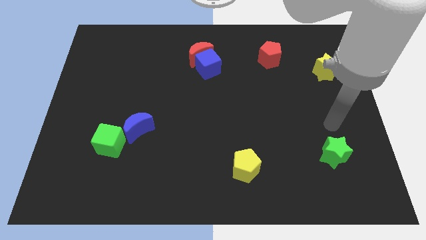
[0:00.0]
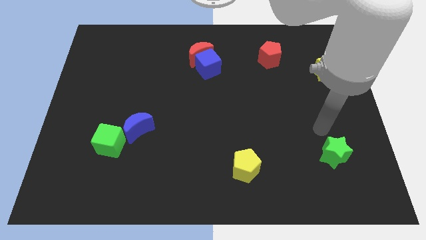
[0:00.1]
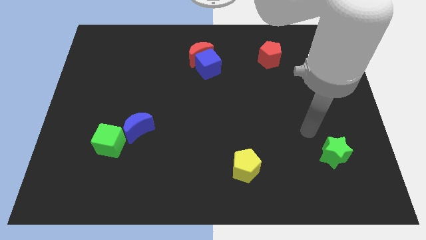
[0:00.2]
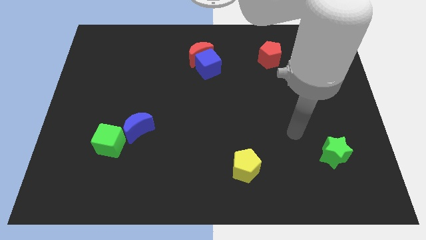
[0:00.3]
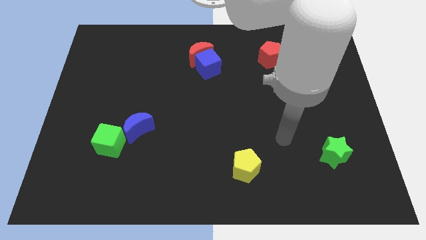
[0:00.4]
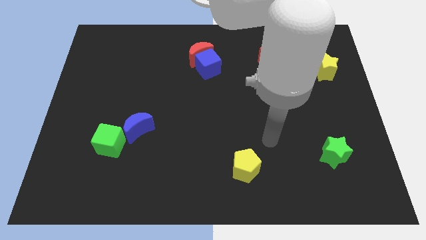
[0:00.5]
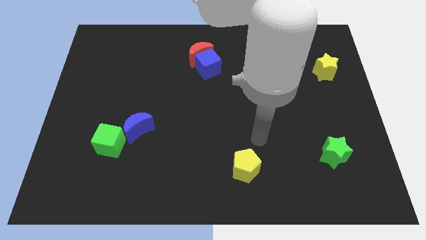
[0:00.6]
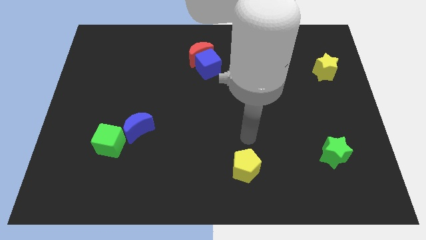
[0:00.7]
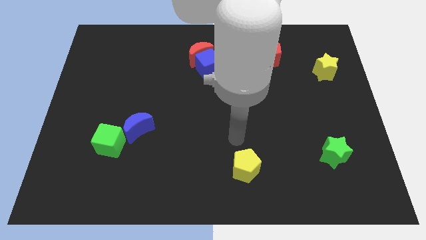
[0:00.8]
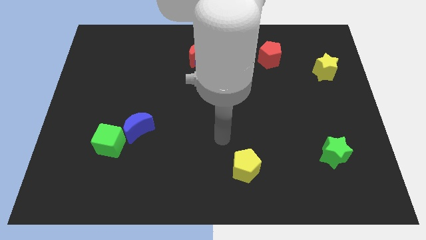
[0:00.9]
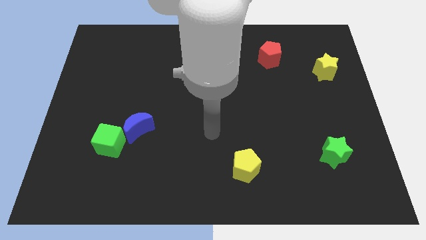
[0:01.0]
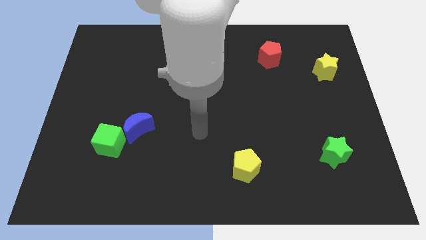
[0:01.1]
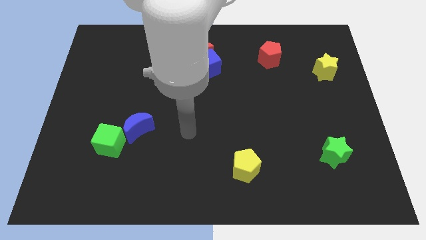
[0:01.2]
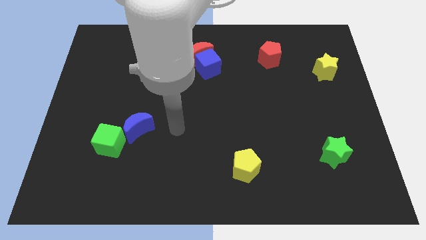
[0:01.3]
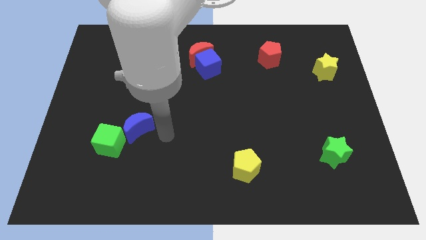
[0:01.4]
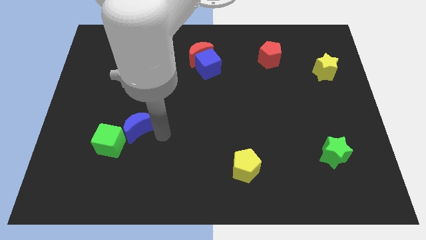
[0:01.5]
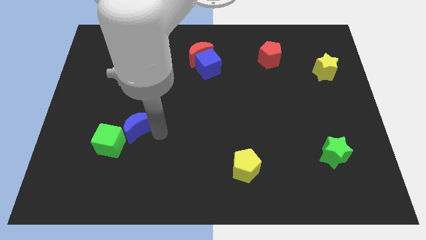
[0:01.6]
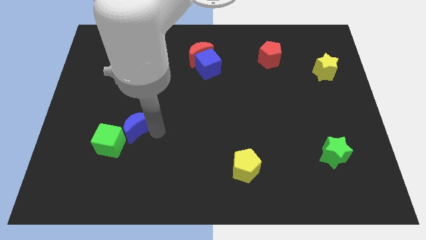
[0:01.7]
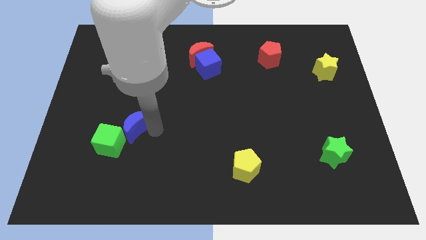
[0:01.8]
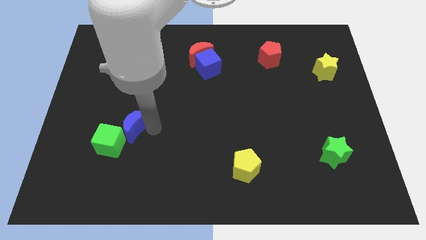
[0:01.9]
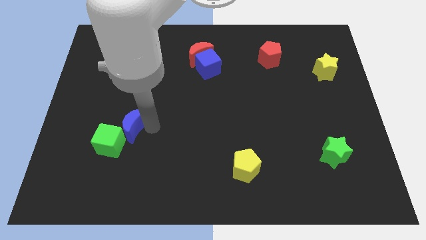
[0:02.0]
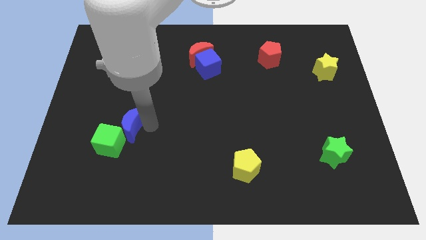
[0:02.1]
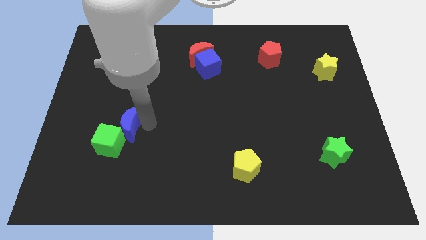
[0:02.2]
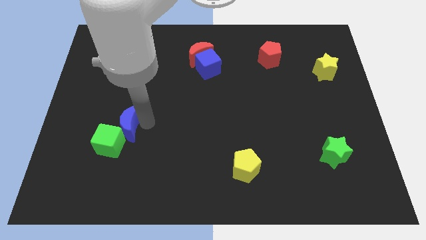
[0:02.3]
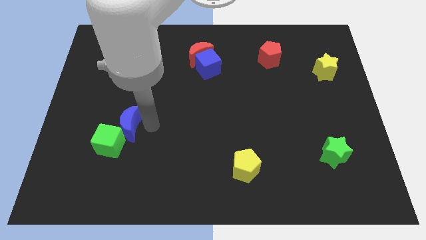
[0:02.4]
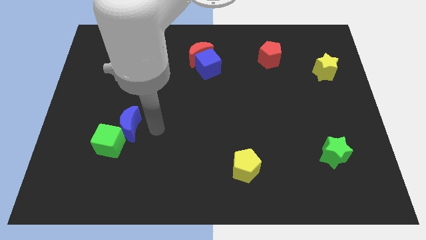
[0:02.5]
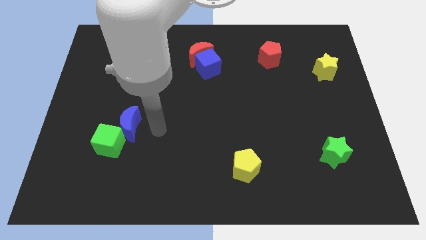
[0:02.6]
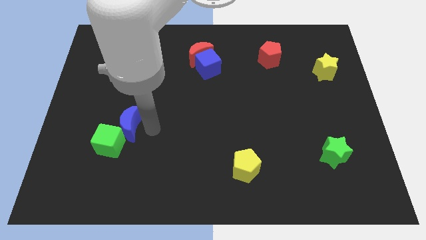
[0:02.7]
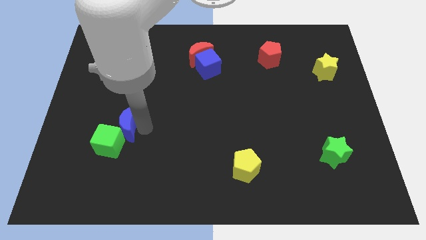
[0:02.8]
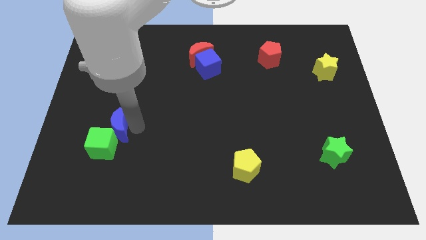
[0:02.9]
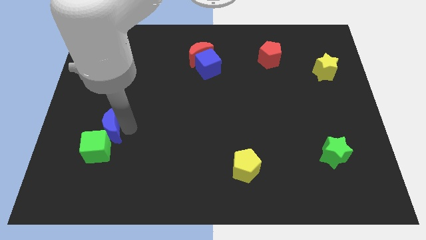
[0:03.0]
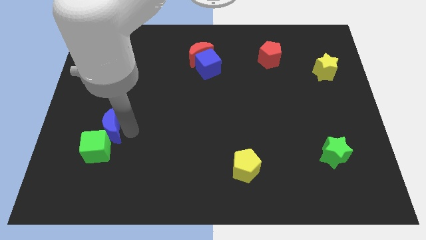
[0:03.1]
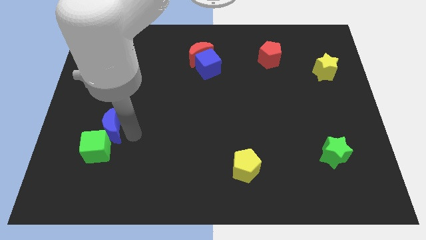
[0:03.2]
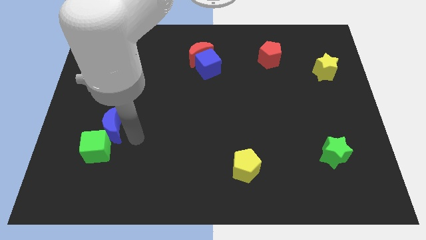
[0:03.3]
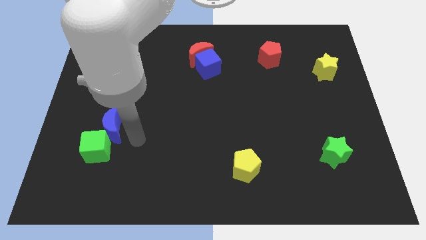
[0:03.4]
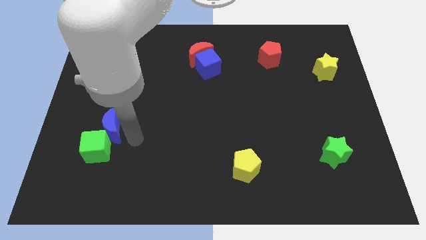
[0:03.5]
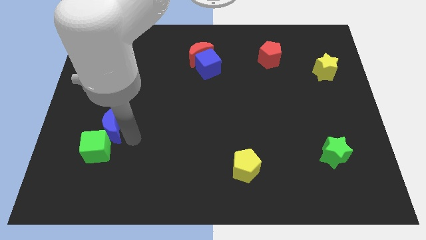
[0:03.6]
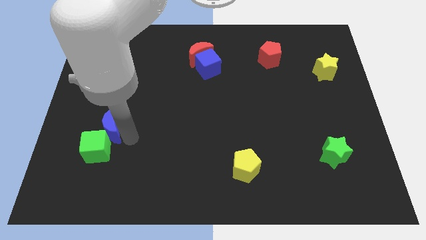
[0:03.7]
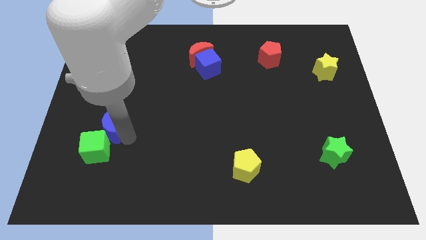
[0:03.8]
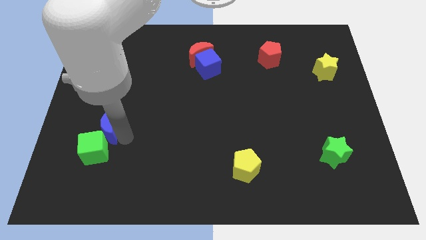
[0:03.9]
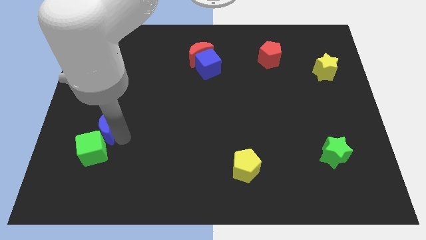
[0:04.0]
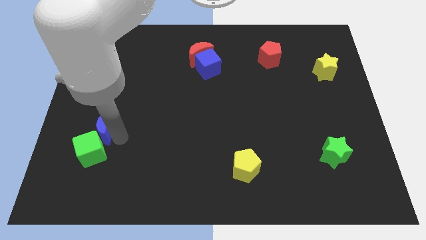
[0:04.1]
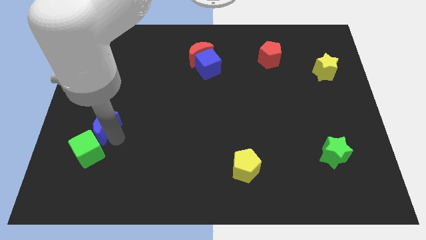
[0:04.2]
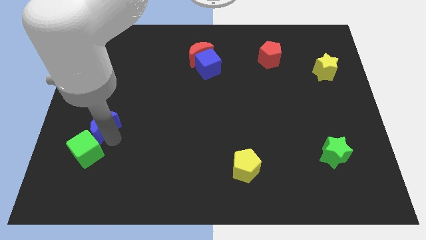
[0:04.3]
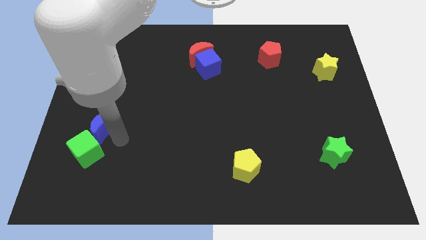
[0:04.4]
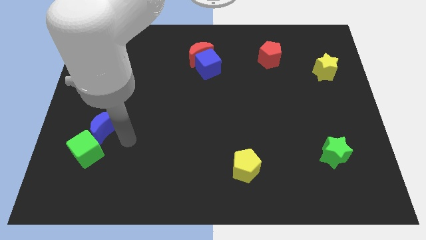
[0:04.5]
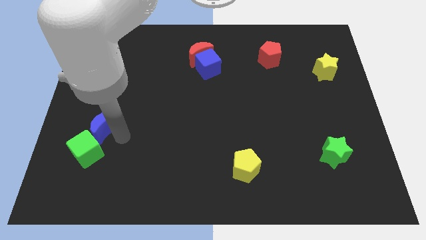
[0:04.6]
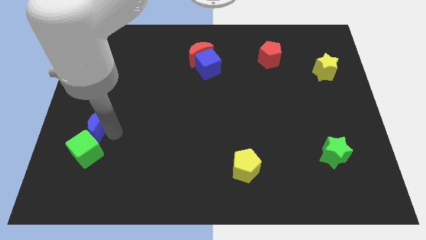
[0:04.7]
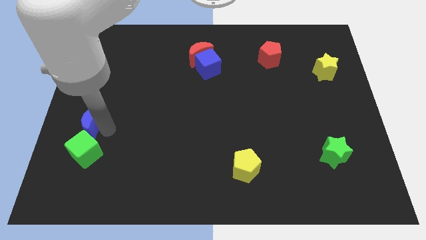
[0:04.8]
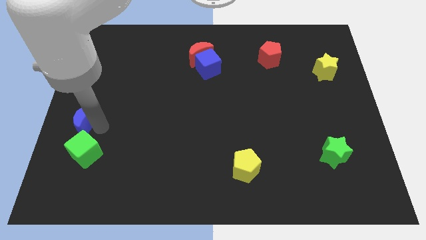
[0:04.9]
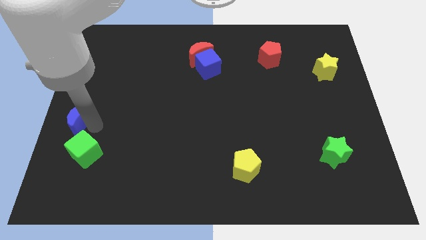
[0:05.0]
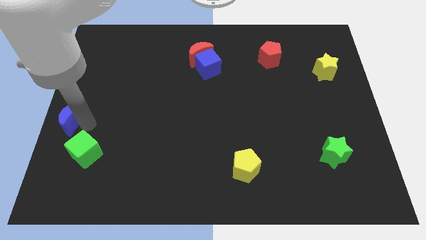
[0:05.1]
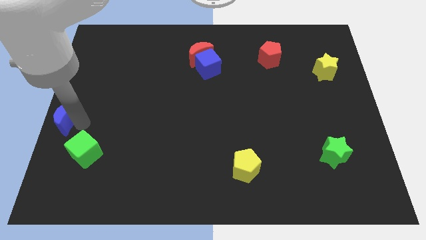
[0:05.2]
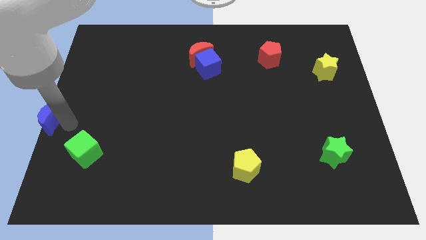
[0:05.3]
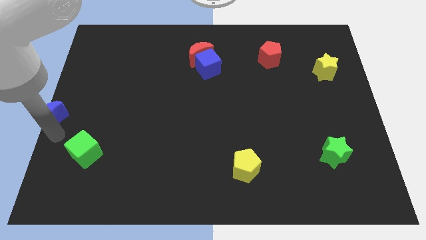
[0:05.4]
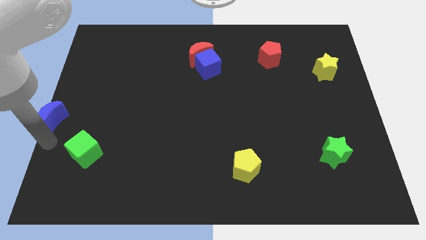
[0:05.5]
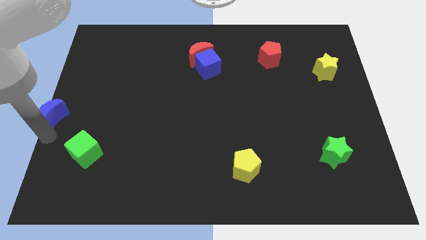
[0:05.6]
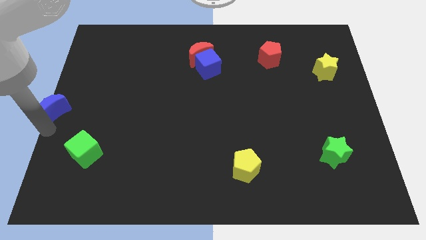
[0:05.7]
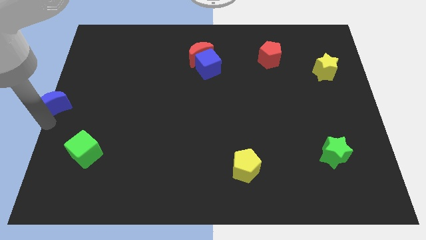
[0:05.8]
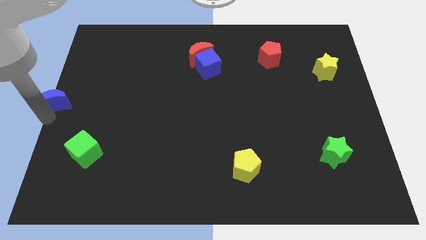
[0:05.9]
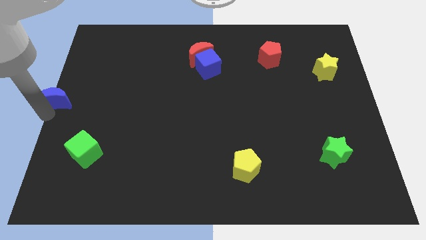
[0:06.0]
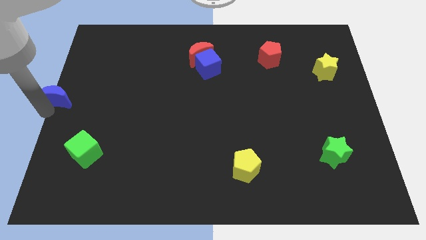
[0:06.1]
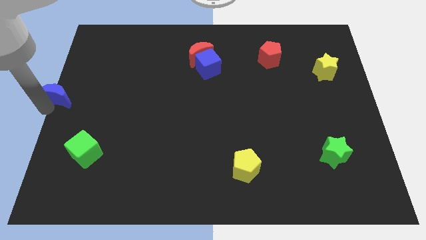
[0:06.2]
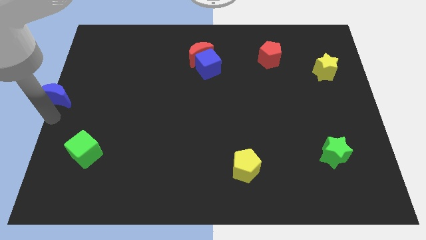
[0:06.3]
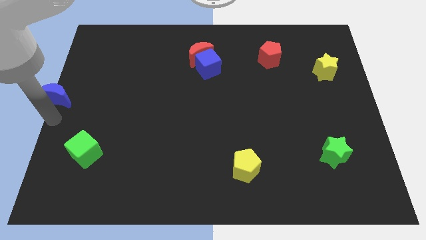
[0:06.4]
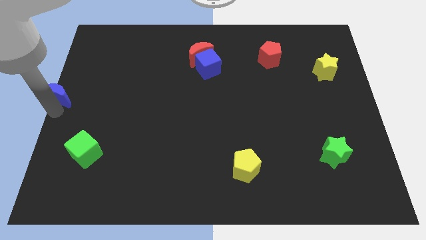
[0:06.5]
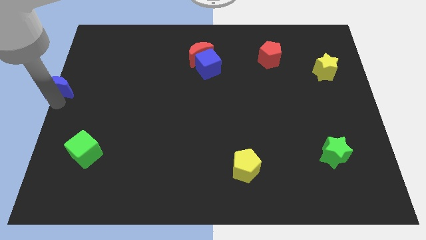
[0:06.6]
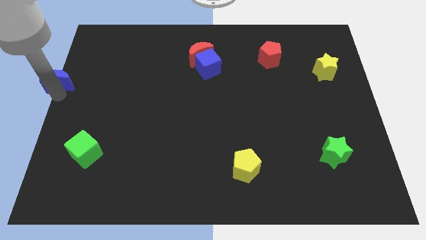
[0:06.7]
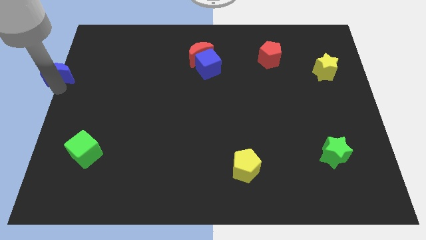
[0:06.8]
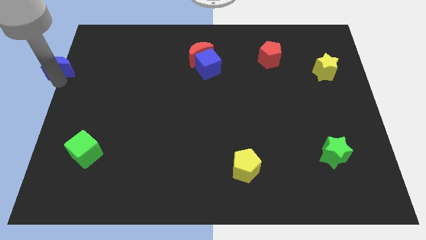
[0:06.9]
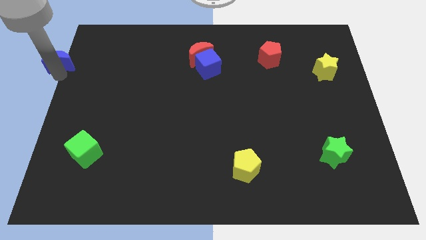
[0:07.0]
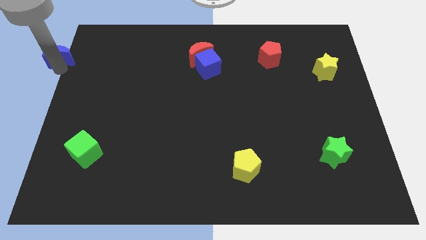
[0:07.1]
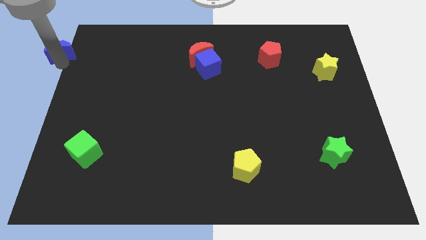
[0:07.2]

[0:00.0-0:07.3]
push the blue moon to the top left corner
